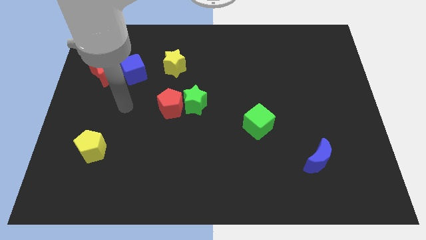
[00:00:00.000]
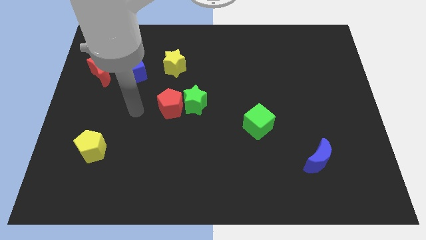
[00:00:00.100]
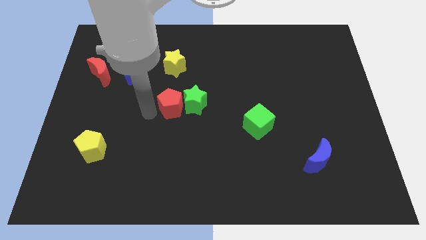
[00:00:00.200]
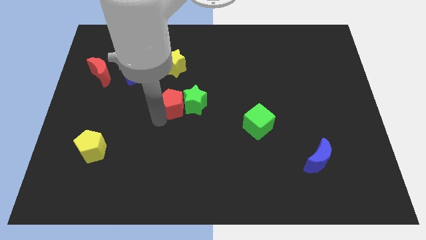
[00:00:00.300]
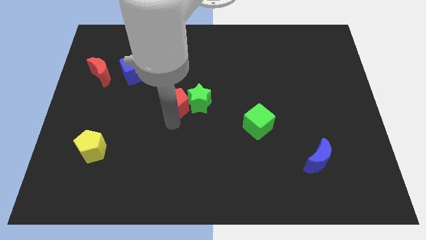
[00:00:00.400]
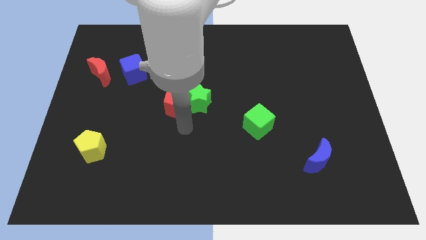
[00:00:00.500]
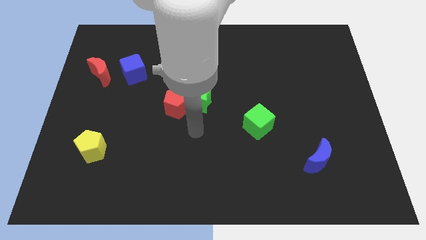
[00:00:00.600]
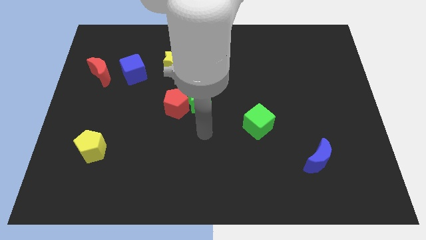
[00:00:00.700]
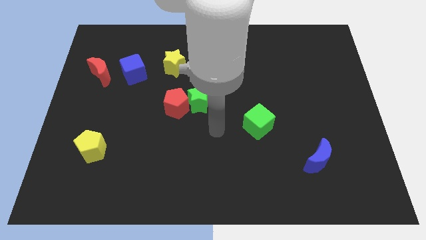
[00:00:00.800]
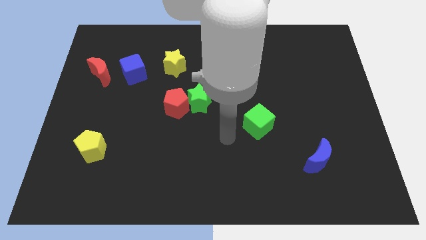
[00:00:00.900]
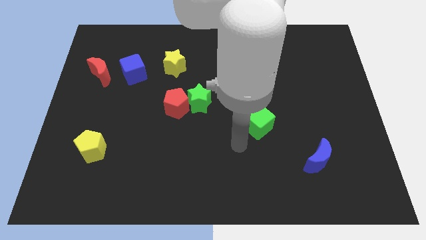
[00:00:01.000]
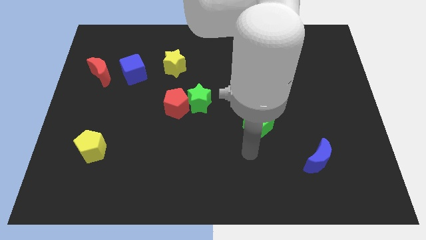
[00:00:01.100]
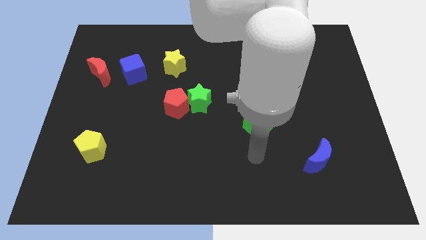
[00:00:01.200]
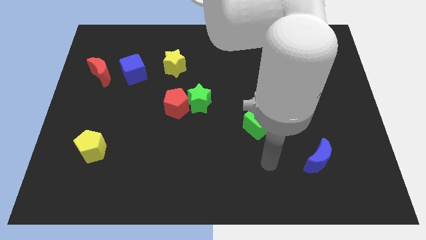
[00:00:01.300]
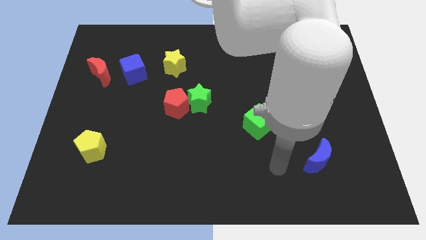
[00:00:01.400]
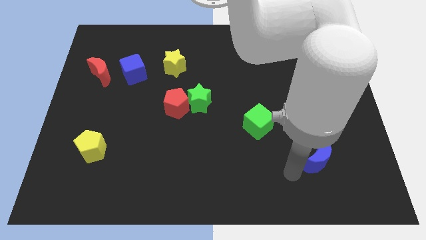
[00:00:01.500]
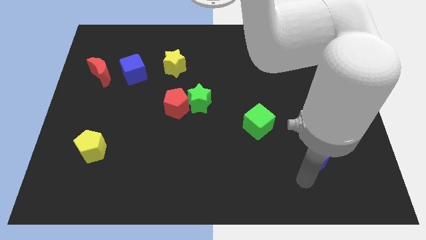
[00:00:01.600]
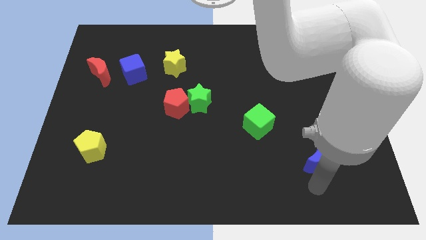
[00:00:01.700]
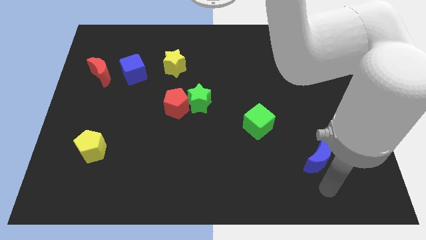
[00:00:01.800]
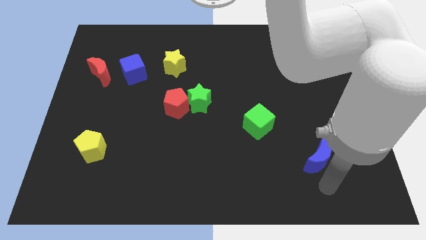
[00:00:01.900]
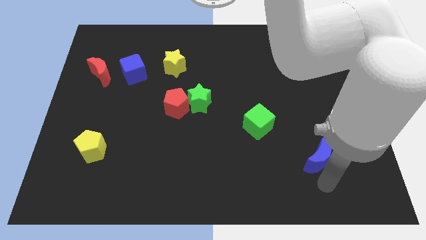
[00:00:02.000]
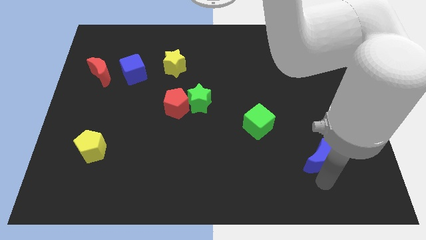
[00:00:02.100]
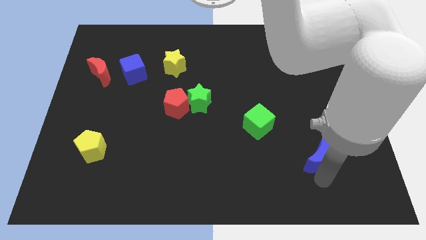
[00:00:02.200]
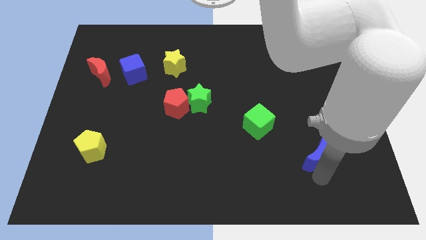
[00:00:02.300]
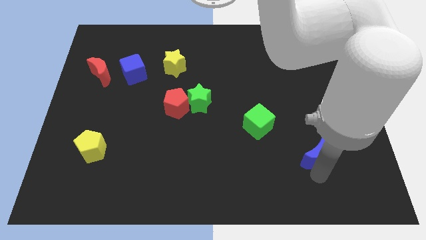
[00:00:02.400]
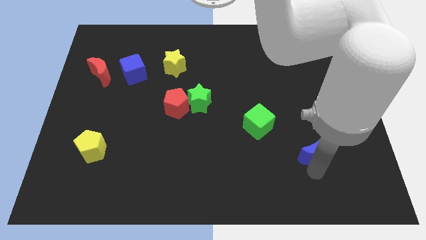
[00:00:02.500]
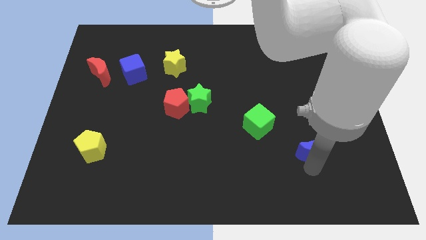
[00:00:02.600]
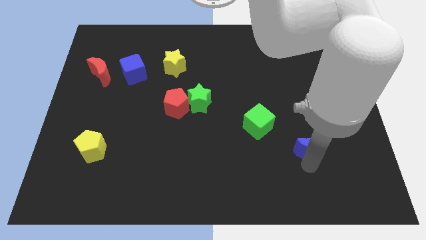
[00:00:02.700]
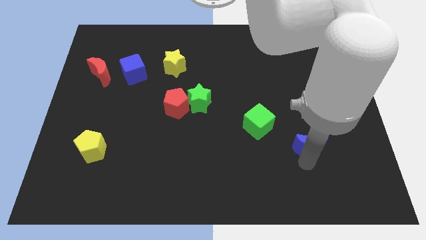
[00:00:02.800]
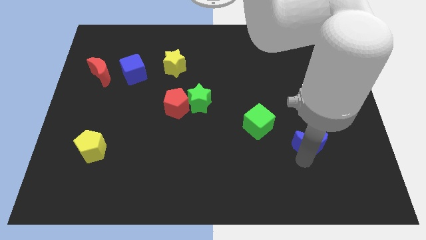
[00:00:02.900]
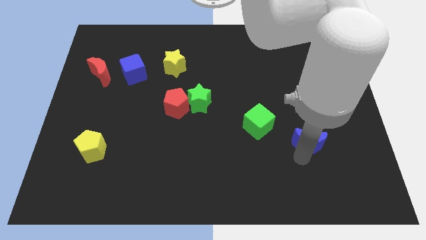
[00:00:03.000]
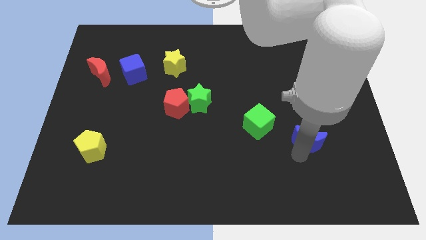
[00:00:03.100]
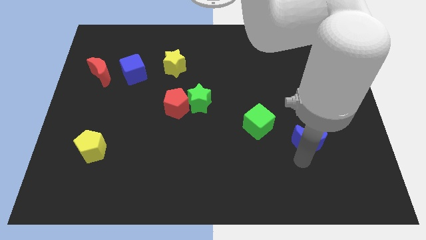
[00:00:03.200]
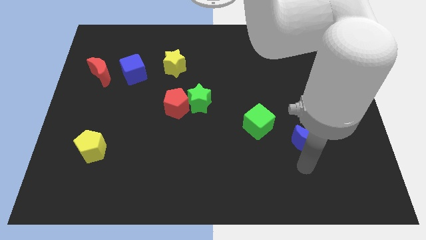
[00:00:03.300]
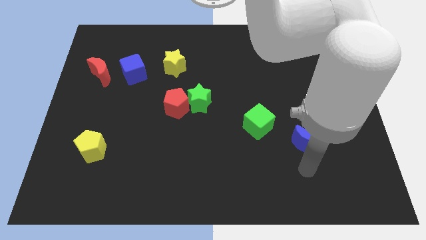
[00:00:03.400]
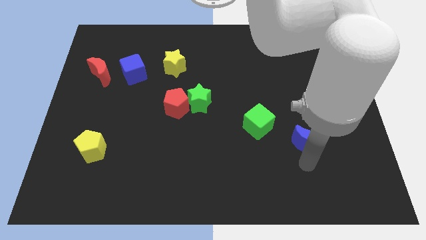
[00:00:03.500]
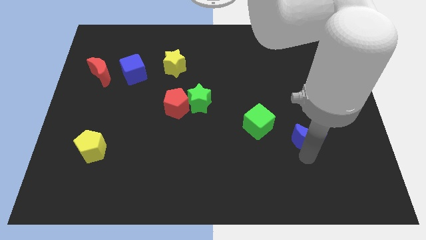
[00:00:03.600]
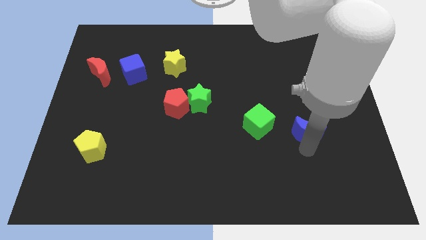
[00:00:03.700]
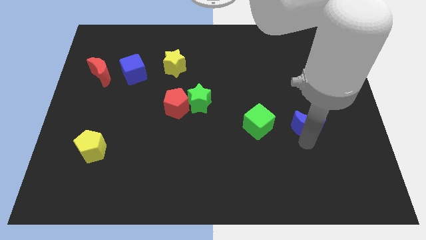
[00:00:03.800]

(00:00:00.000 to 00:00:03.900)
move the blue moon somewhat upwards

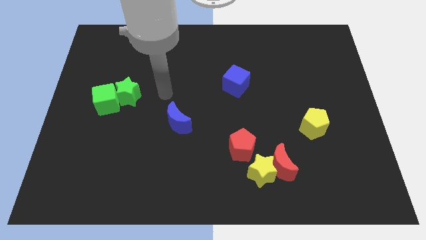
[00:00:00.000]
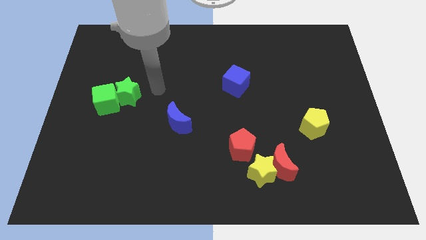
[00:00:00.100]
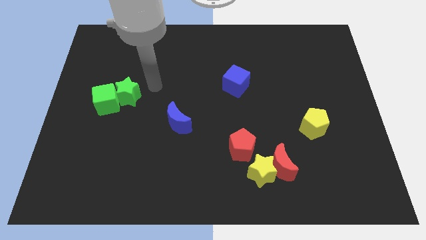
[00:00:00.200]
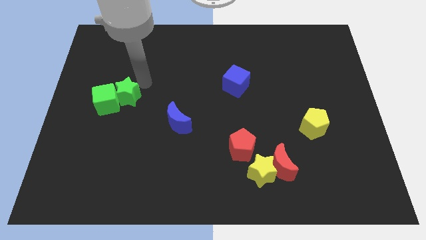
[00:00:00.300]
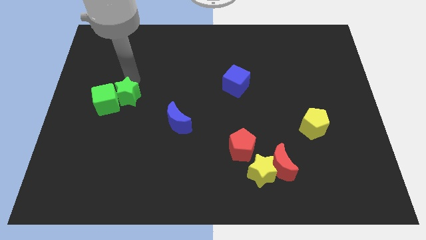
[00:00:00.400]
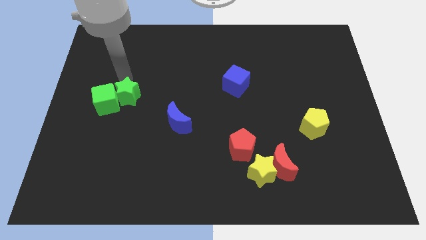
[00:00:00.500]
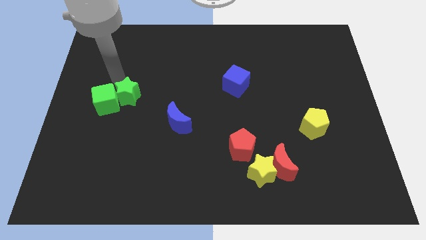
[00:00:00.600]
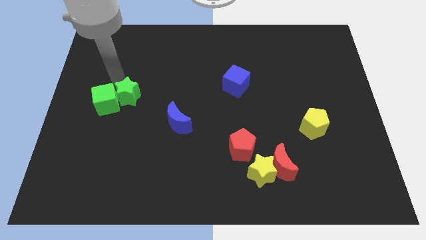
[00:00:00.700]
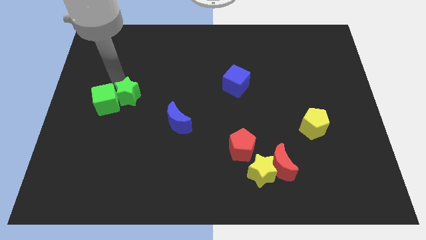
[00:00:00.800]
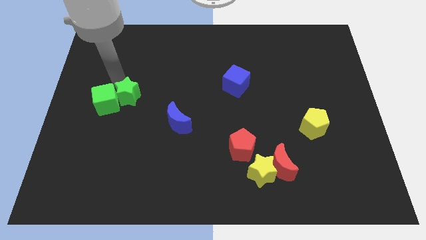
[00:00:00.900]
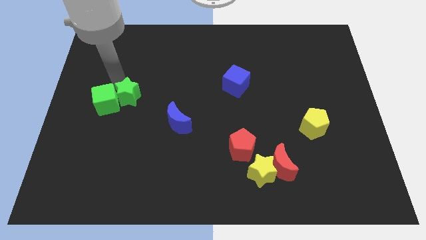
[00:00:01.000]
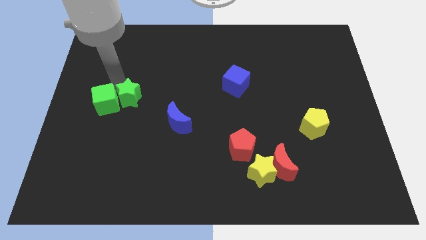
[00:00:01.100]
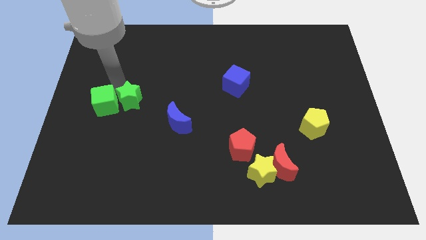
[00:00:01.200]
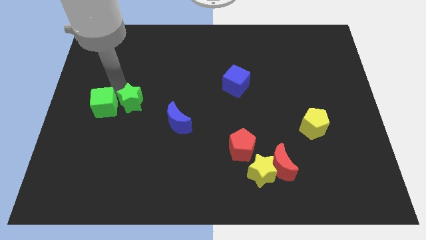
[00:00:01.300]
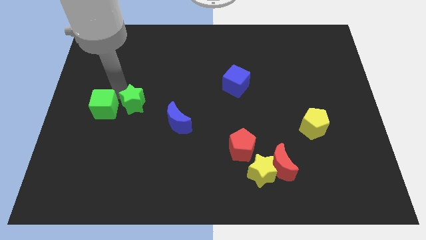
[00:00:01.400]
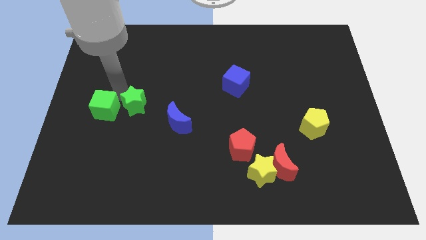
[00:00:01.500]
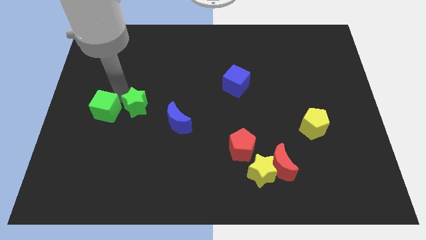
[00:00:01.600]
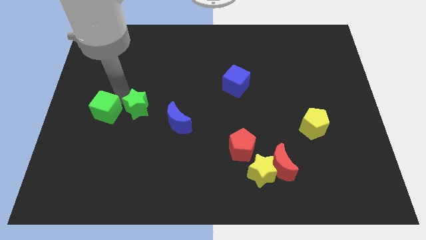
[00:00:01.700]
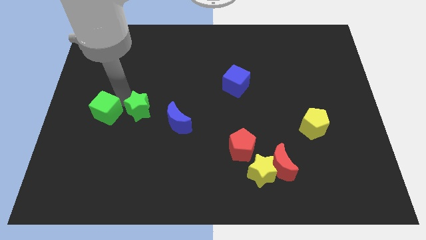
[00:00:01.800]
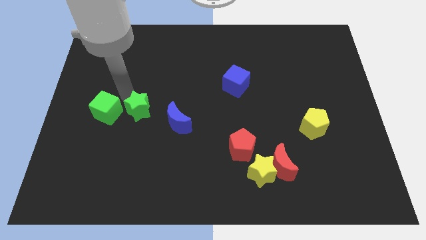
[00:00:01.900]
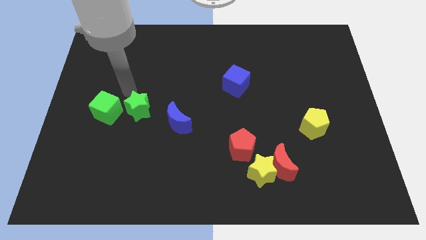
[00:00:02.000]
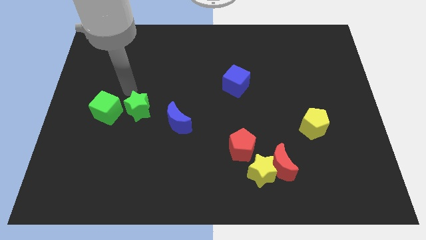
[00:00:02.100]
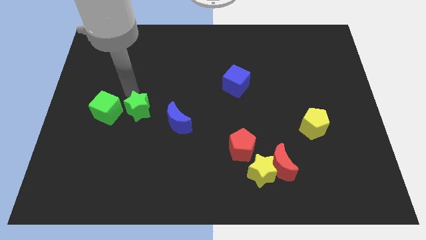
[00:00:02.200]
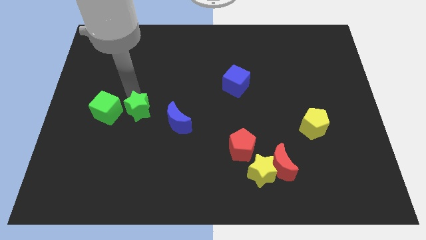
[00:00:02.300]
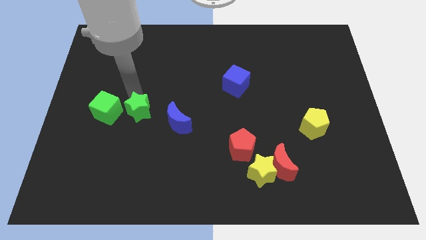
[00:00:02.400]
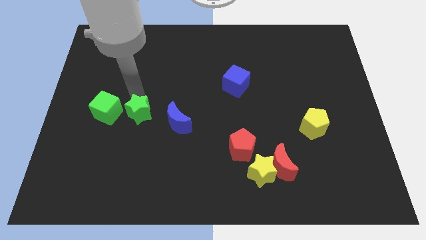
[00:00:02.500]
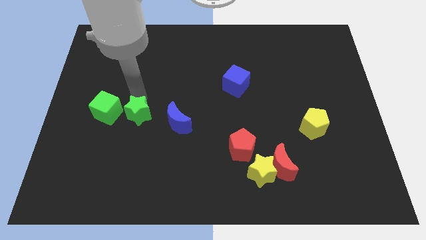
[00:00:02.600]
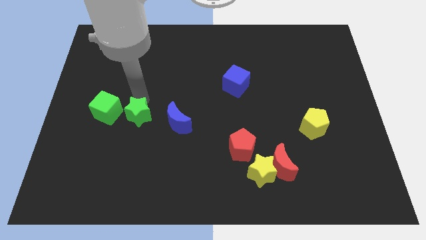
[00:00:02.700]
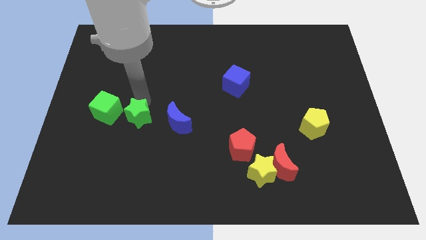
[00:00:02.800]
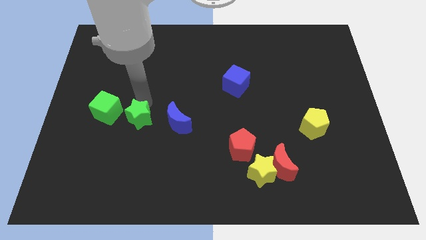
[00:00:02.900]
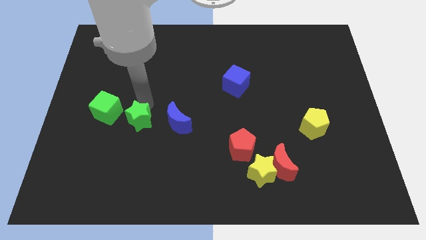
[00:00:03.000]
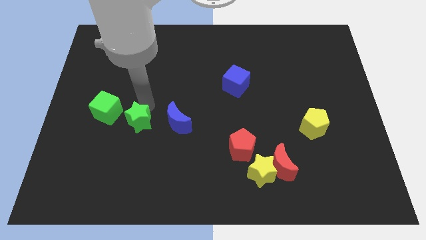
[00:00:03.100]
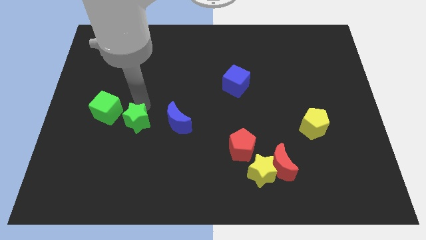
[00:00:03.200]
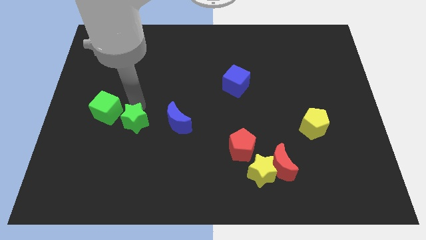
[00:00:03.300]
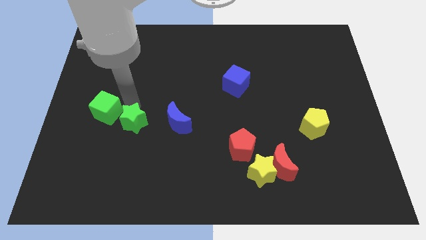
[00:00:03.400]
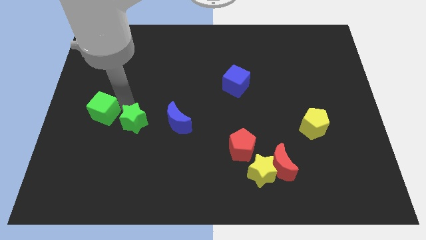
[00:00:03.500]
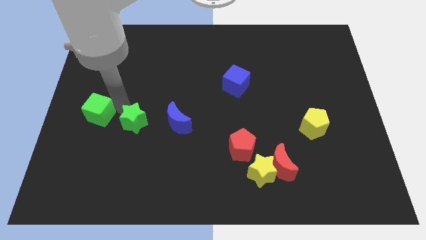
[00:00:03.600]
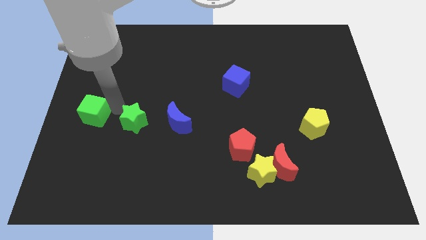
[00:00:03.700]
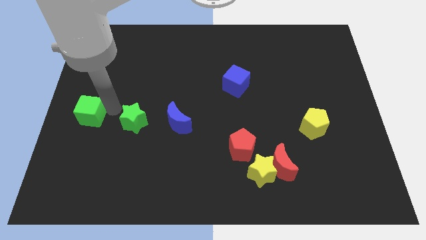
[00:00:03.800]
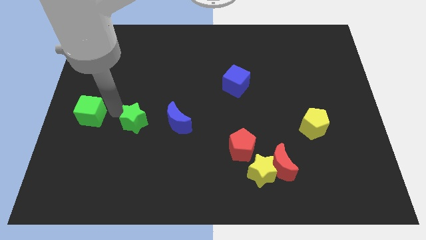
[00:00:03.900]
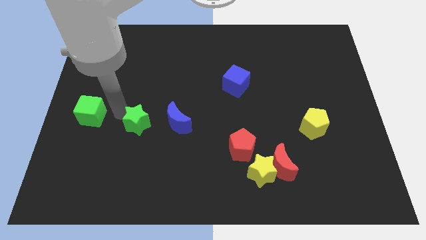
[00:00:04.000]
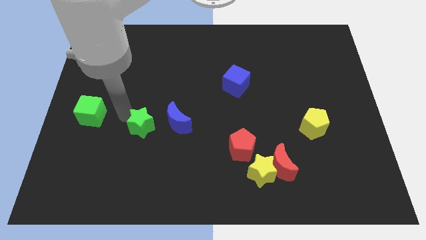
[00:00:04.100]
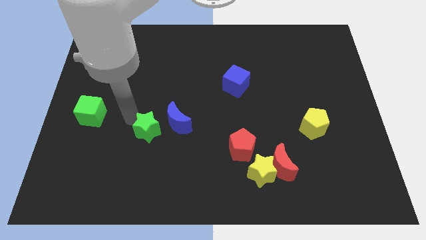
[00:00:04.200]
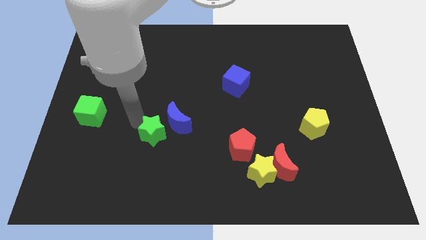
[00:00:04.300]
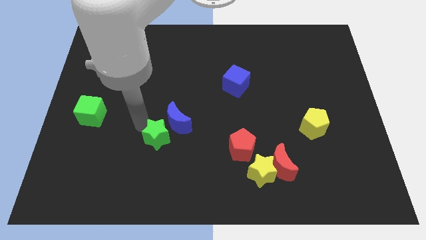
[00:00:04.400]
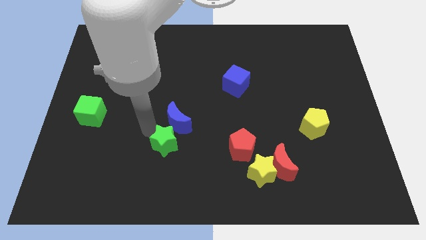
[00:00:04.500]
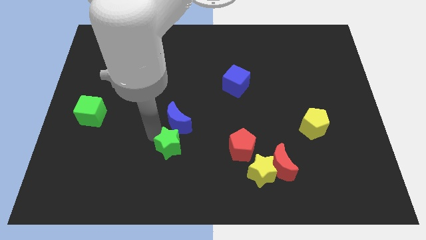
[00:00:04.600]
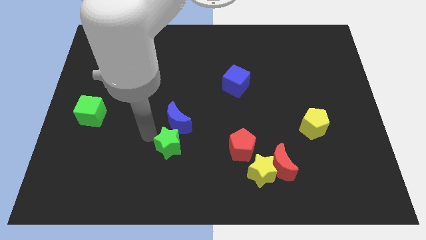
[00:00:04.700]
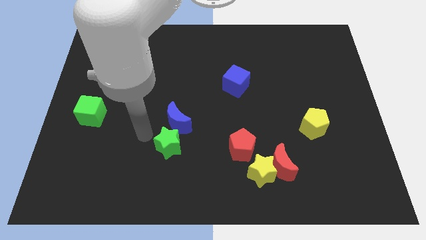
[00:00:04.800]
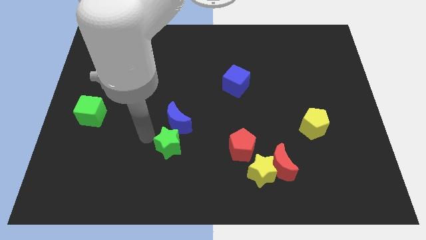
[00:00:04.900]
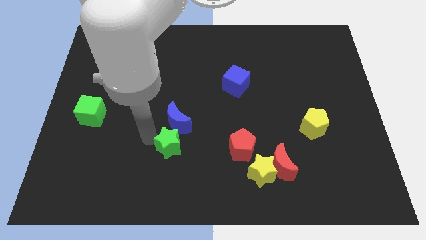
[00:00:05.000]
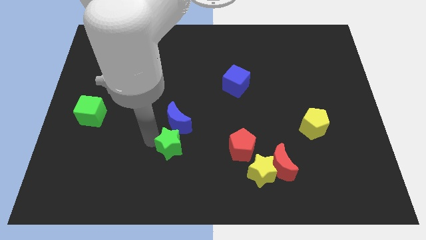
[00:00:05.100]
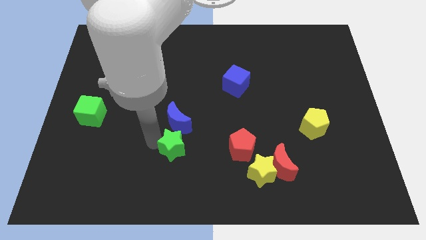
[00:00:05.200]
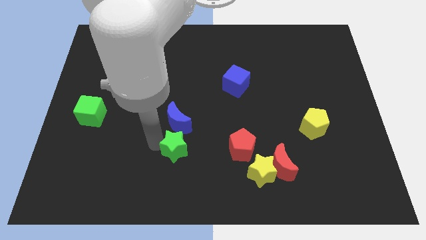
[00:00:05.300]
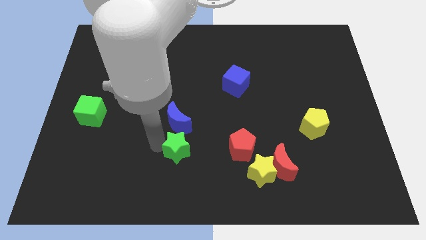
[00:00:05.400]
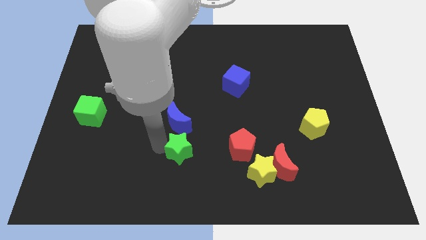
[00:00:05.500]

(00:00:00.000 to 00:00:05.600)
slide the green star down and then right
